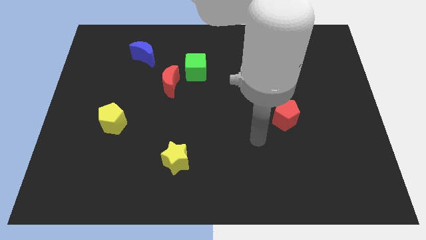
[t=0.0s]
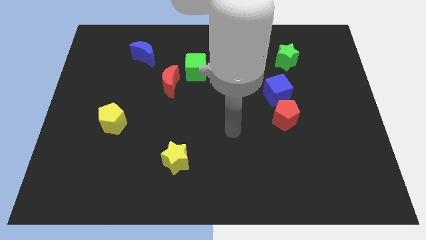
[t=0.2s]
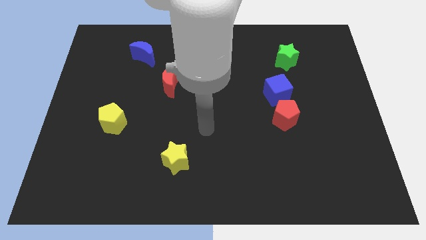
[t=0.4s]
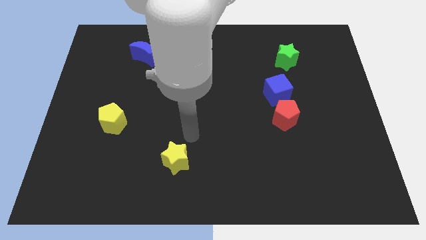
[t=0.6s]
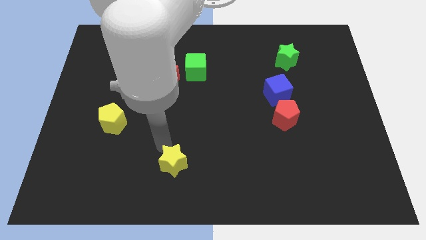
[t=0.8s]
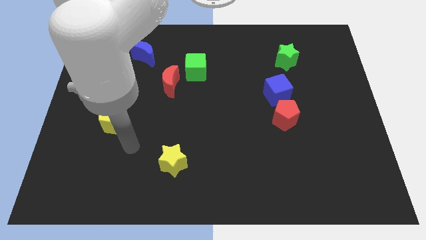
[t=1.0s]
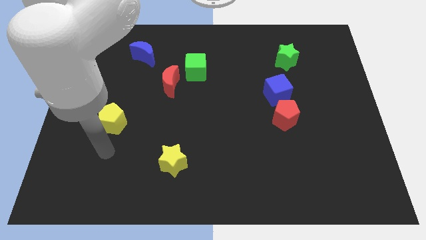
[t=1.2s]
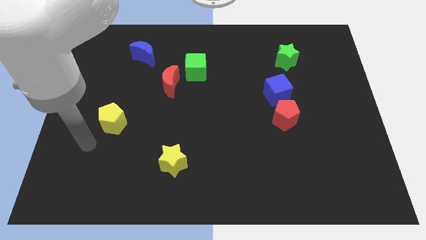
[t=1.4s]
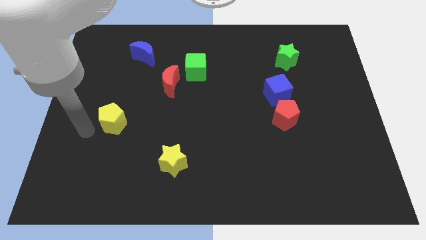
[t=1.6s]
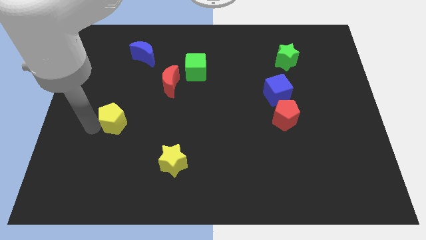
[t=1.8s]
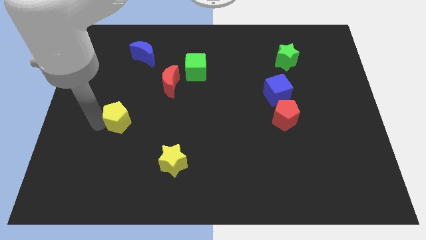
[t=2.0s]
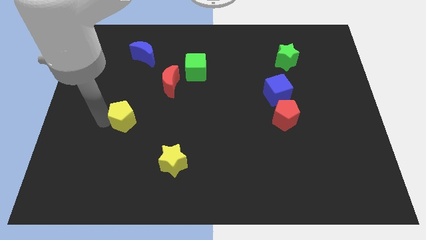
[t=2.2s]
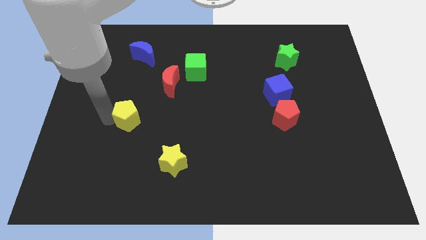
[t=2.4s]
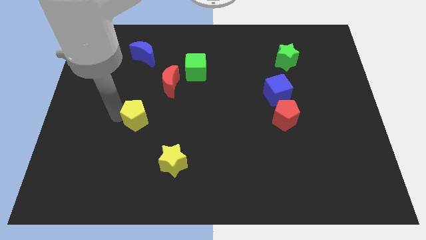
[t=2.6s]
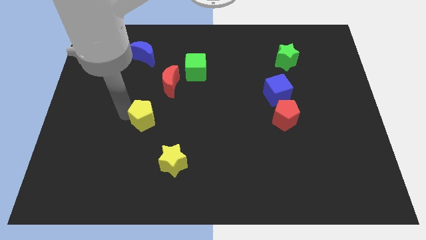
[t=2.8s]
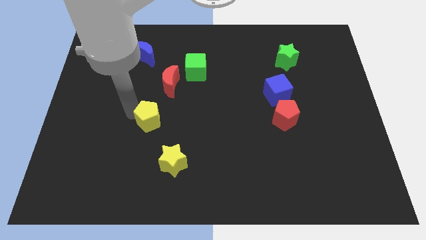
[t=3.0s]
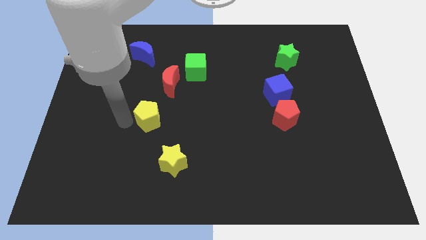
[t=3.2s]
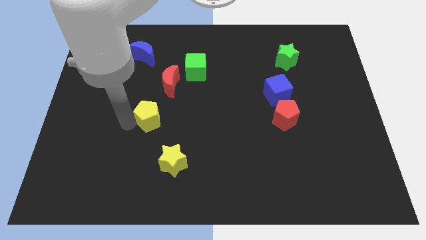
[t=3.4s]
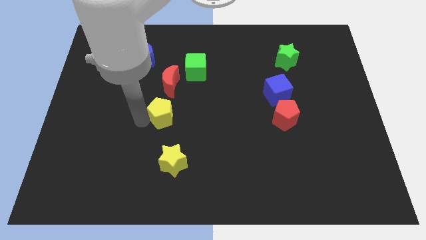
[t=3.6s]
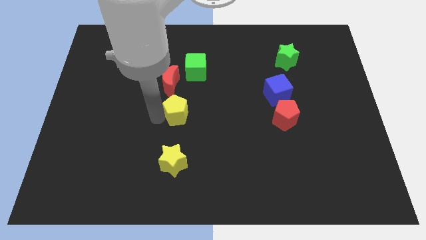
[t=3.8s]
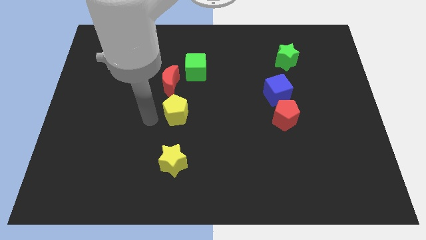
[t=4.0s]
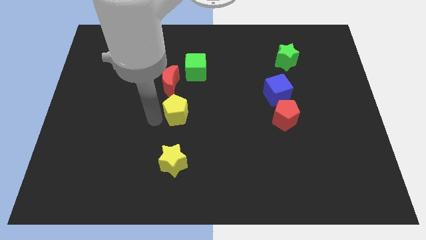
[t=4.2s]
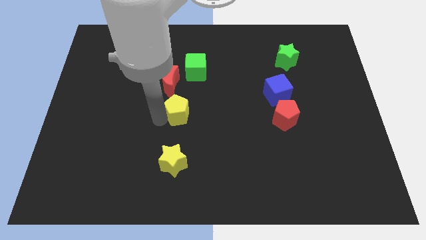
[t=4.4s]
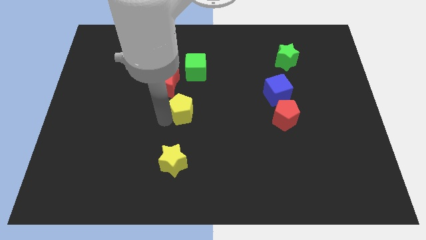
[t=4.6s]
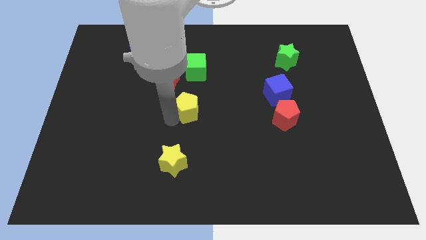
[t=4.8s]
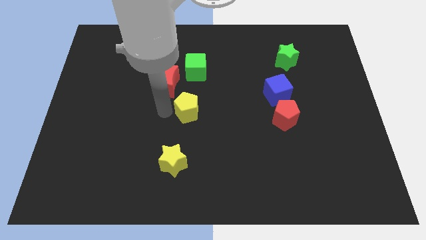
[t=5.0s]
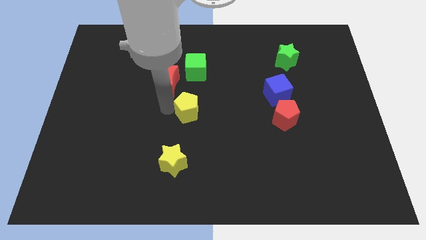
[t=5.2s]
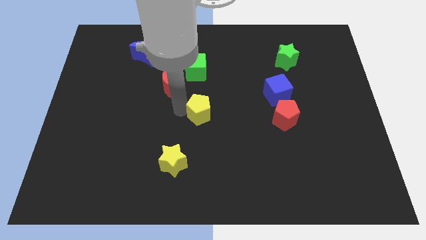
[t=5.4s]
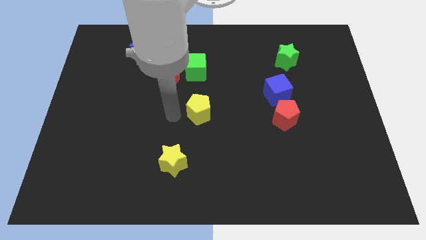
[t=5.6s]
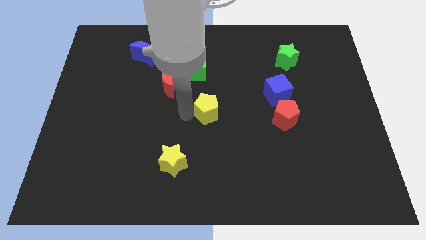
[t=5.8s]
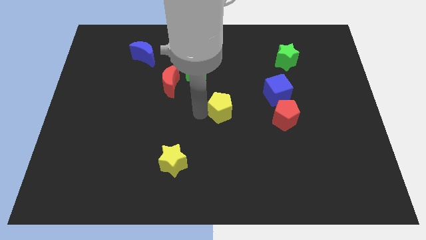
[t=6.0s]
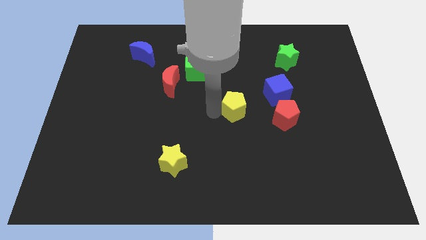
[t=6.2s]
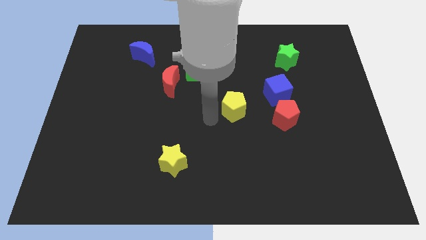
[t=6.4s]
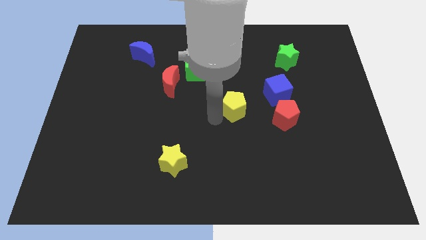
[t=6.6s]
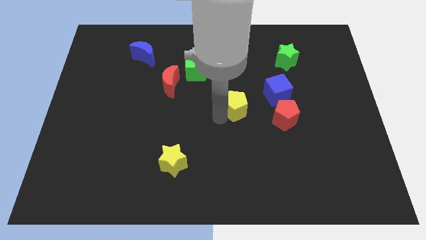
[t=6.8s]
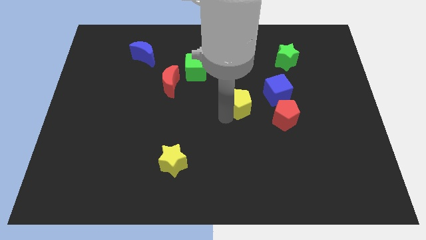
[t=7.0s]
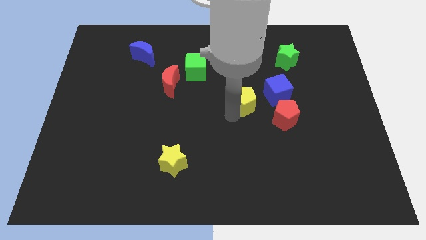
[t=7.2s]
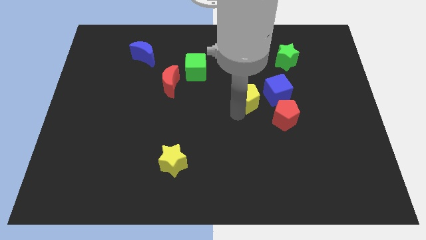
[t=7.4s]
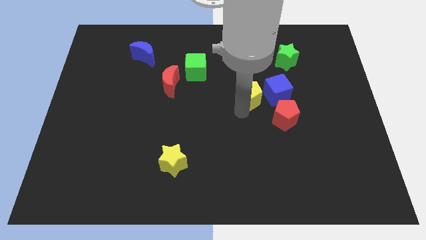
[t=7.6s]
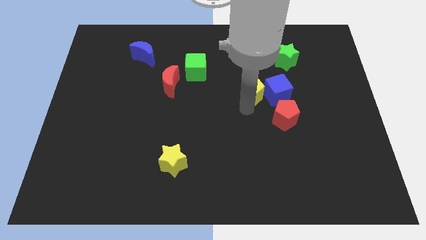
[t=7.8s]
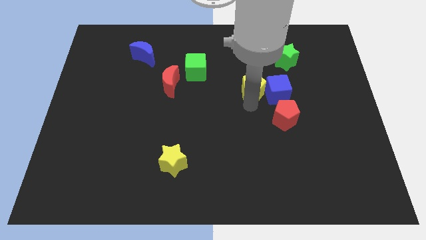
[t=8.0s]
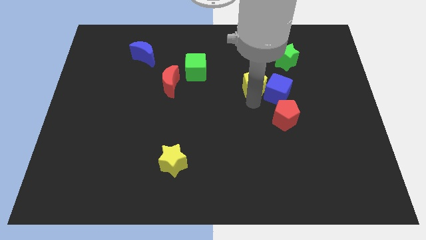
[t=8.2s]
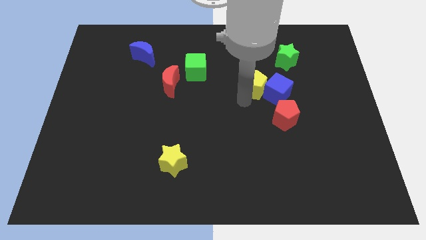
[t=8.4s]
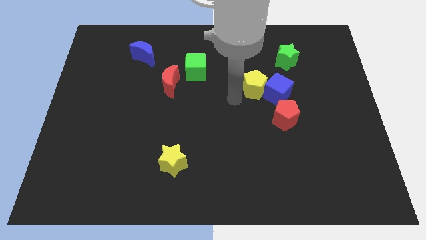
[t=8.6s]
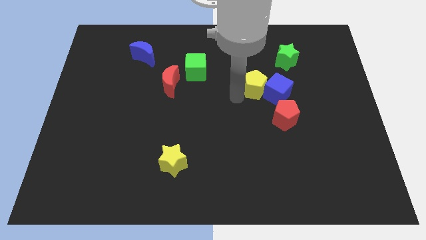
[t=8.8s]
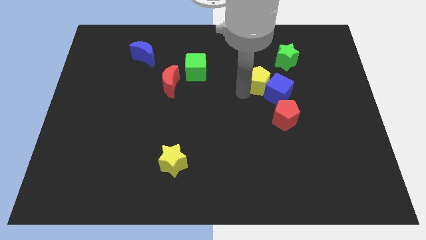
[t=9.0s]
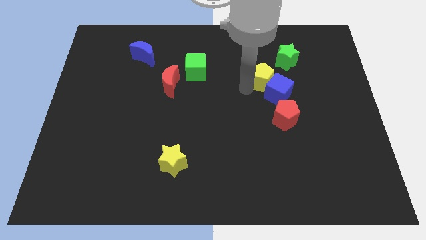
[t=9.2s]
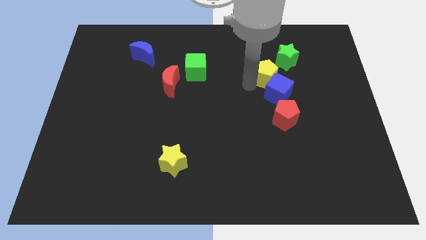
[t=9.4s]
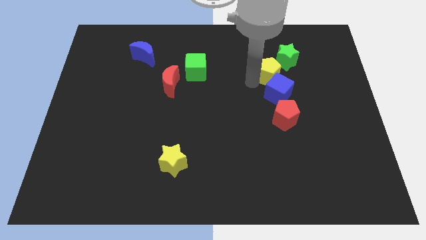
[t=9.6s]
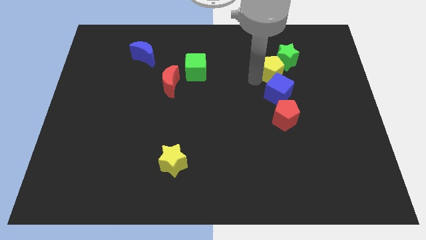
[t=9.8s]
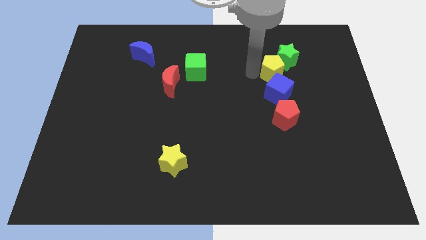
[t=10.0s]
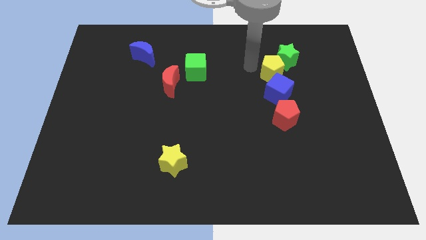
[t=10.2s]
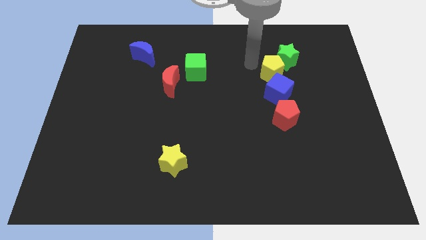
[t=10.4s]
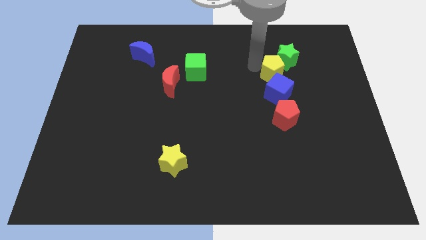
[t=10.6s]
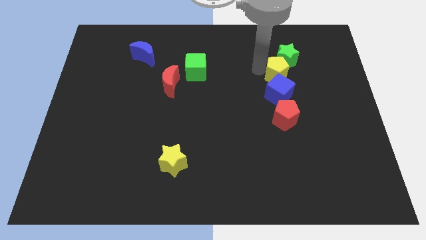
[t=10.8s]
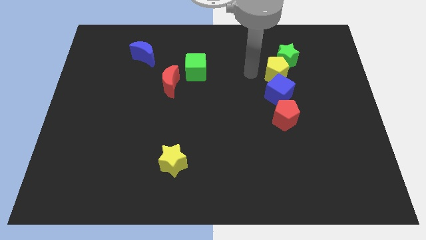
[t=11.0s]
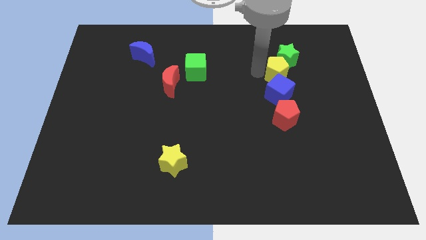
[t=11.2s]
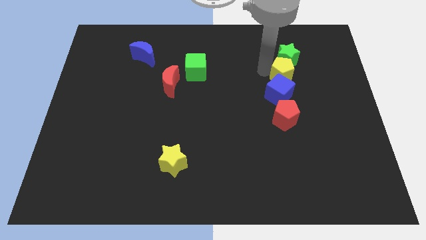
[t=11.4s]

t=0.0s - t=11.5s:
slide the yellow pentagon to the bottom right side of the green star

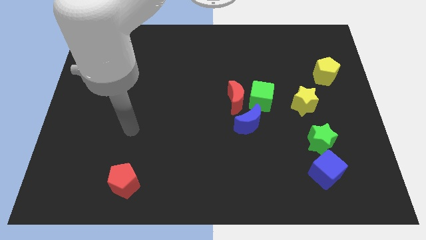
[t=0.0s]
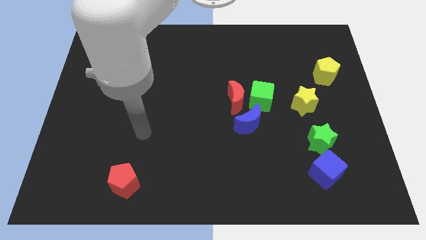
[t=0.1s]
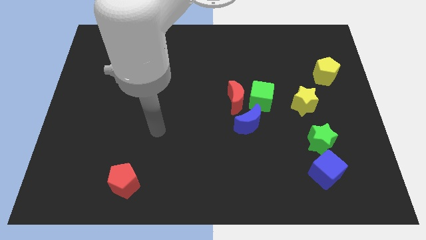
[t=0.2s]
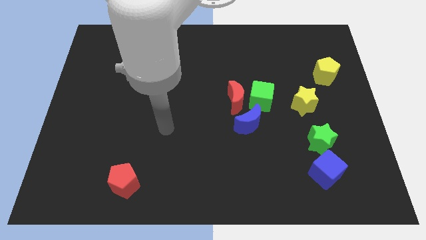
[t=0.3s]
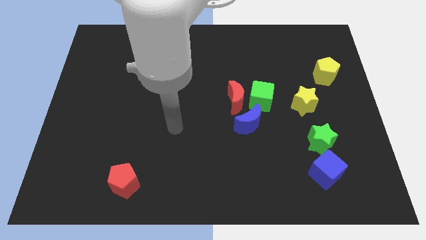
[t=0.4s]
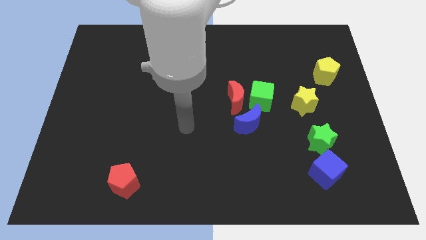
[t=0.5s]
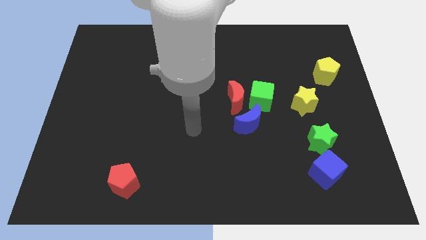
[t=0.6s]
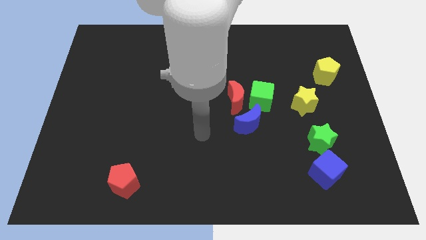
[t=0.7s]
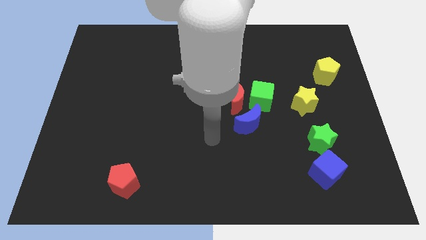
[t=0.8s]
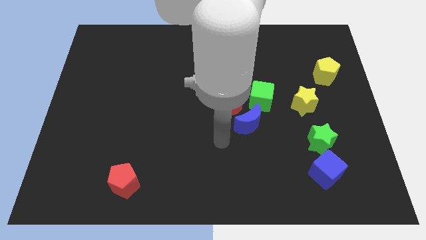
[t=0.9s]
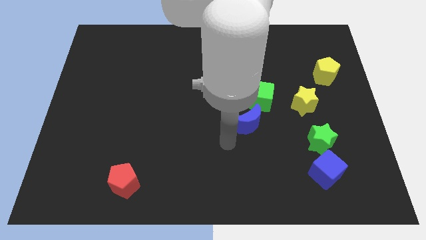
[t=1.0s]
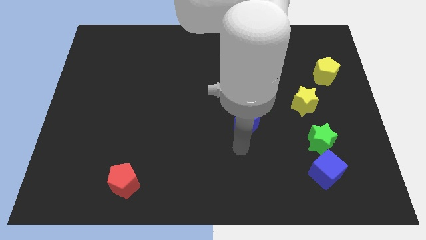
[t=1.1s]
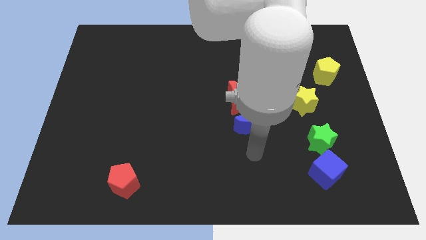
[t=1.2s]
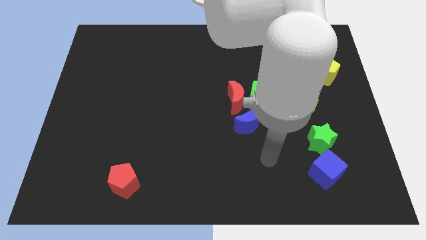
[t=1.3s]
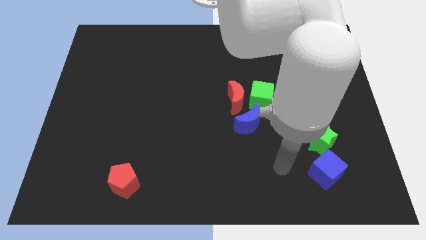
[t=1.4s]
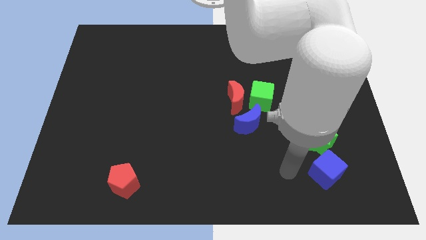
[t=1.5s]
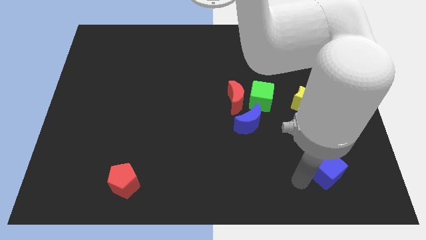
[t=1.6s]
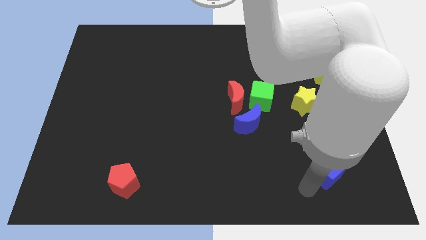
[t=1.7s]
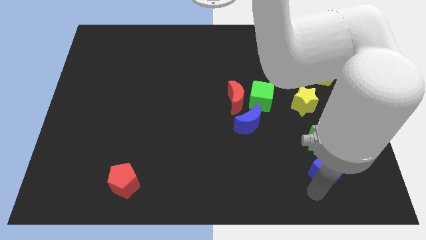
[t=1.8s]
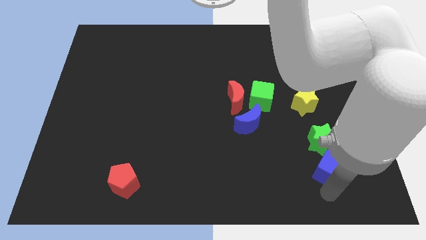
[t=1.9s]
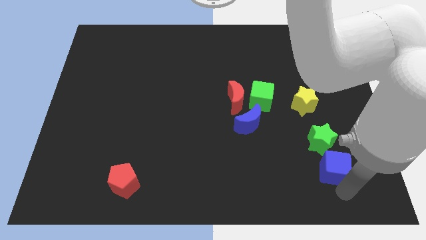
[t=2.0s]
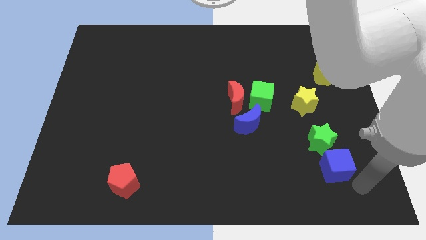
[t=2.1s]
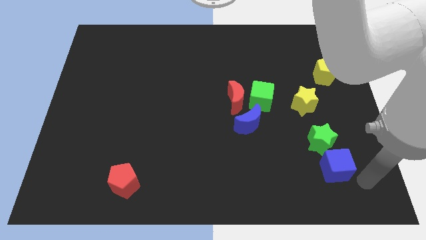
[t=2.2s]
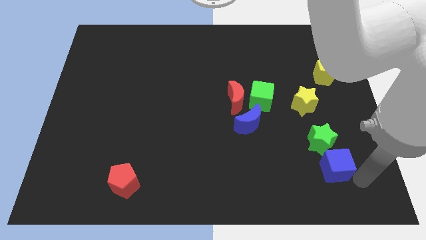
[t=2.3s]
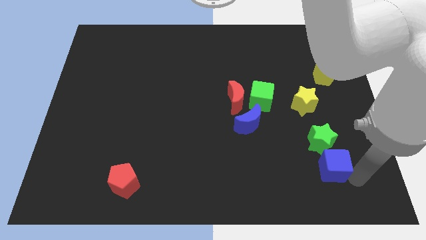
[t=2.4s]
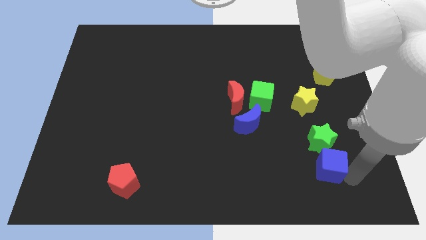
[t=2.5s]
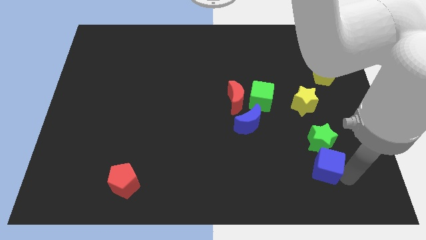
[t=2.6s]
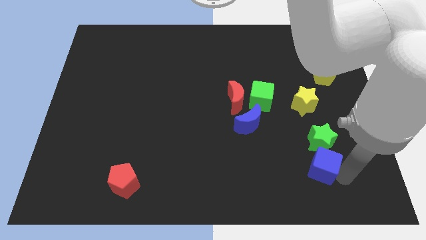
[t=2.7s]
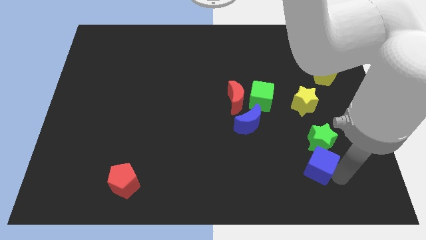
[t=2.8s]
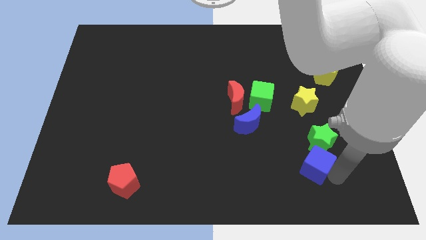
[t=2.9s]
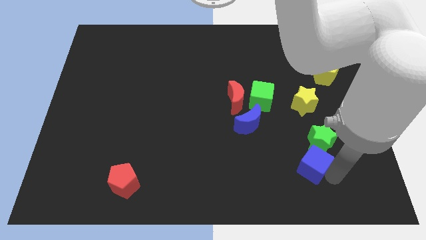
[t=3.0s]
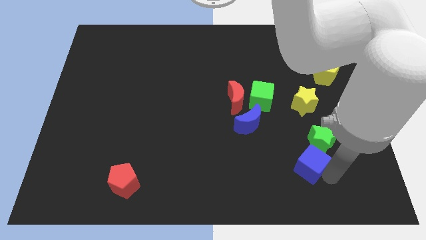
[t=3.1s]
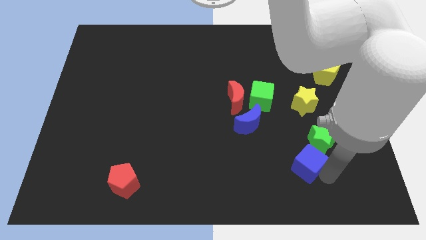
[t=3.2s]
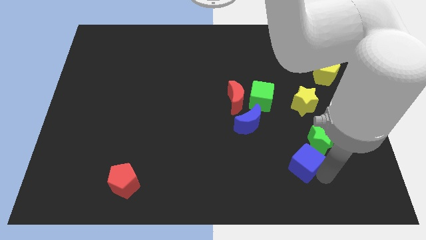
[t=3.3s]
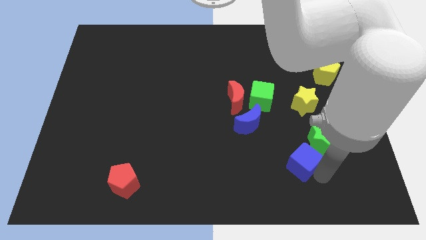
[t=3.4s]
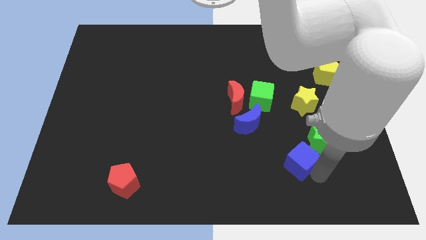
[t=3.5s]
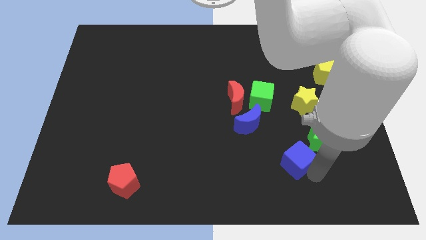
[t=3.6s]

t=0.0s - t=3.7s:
push the blue cube to the left side of the green star
